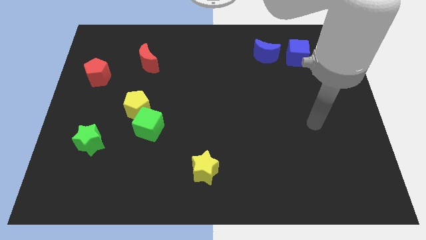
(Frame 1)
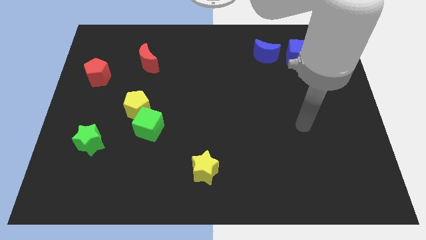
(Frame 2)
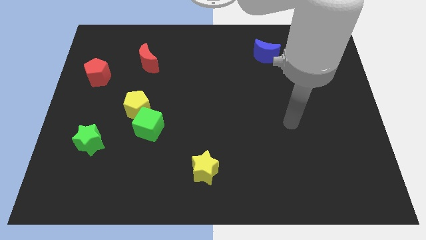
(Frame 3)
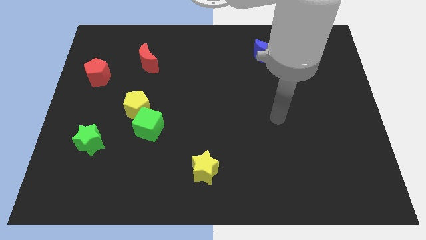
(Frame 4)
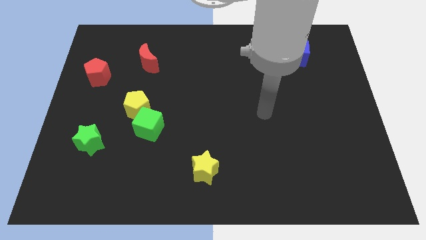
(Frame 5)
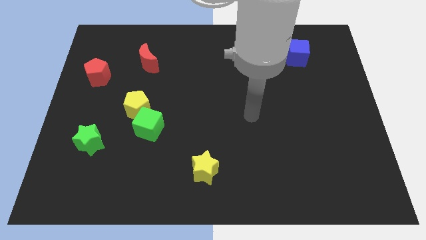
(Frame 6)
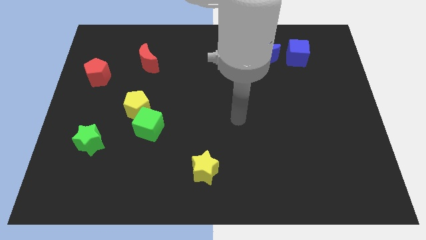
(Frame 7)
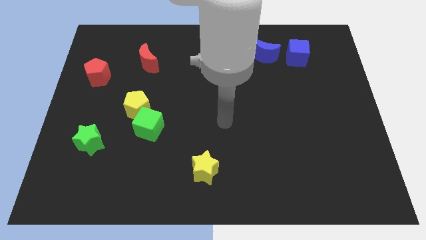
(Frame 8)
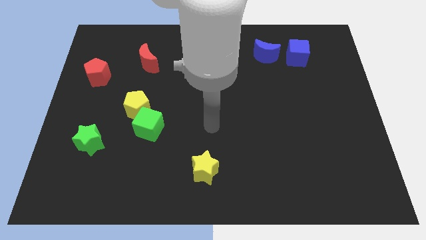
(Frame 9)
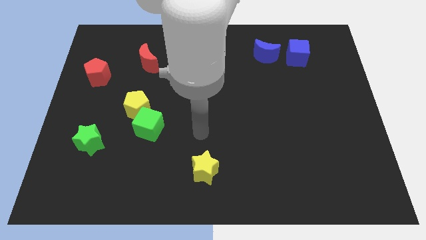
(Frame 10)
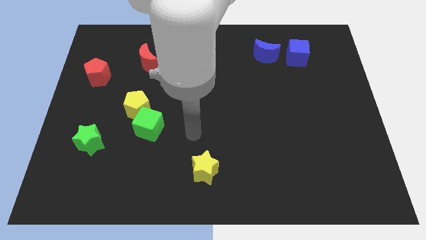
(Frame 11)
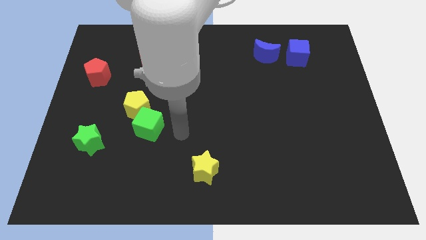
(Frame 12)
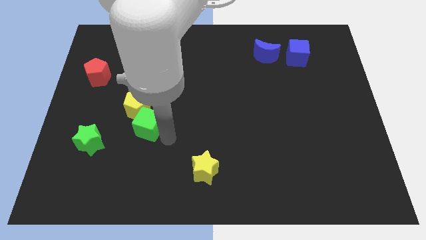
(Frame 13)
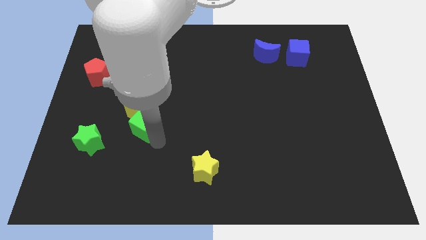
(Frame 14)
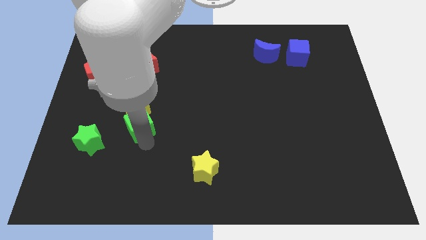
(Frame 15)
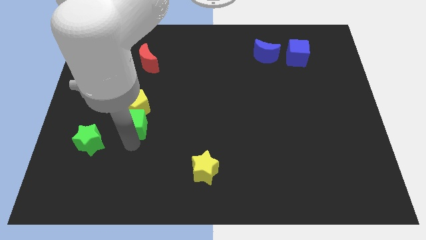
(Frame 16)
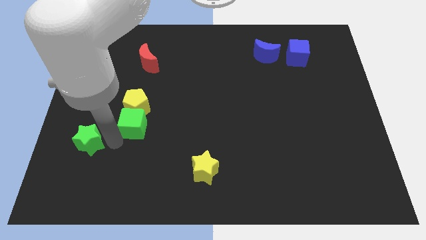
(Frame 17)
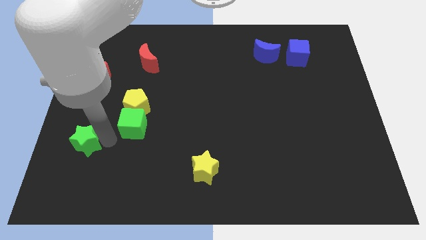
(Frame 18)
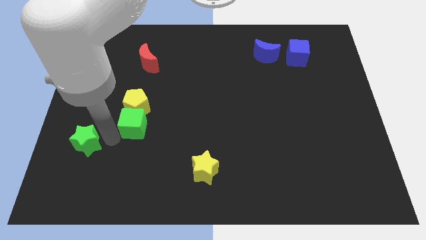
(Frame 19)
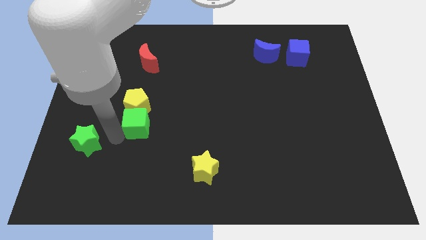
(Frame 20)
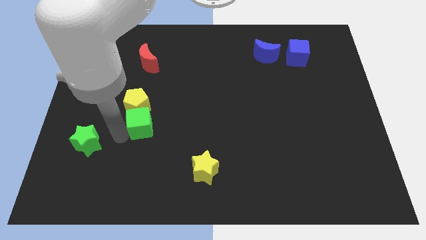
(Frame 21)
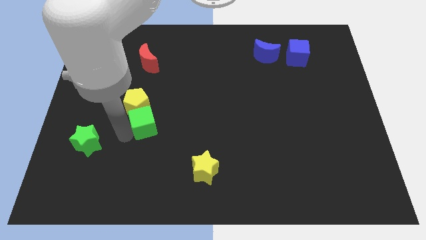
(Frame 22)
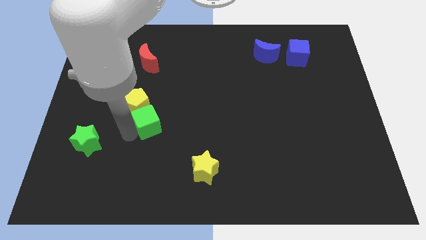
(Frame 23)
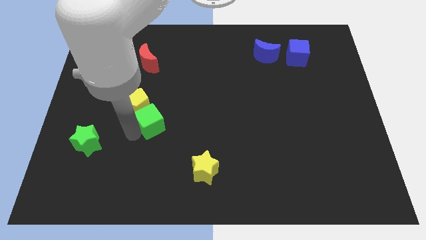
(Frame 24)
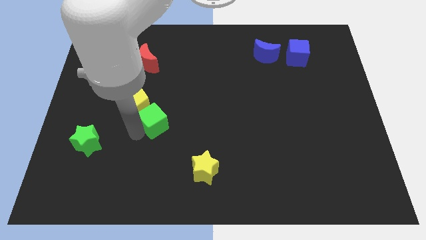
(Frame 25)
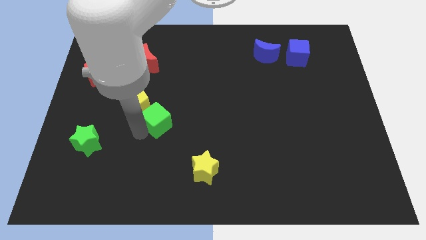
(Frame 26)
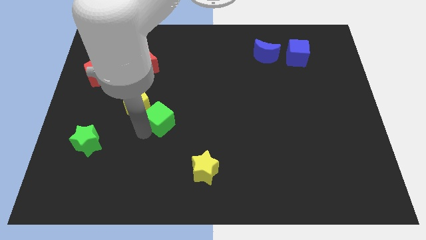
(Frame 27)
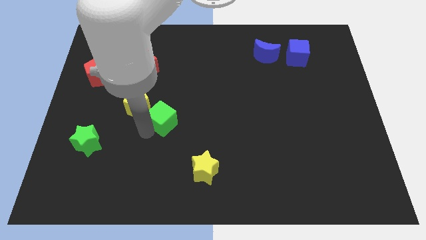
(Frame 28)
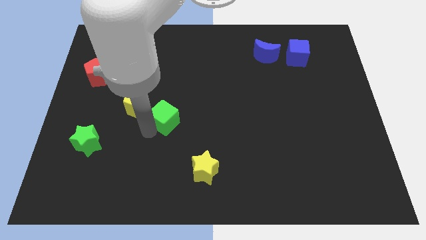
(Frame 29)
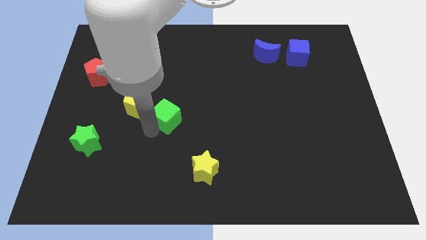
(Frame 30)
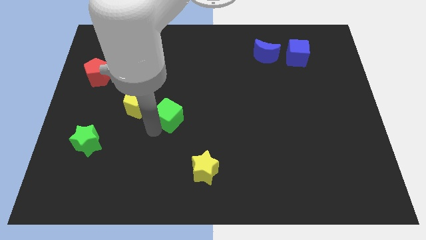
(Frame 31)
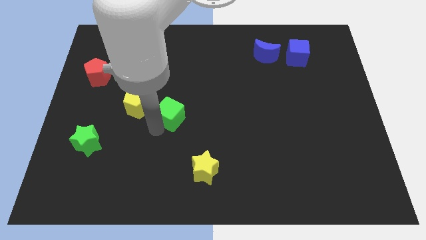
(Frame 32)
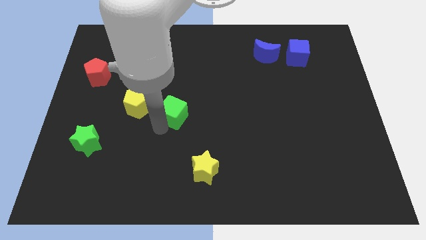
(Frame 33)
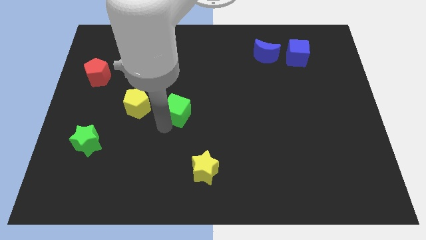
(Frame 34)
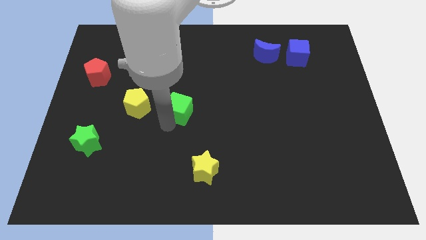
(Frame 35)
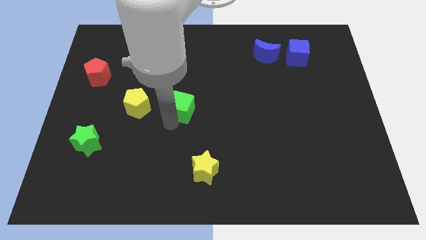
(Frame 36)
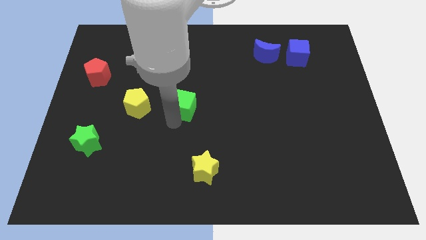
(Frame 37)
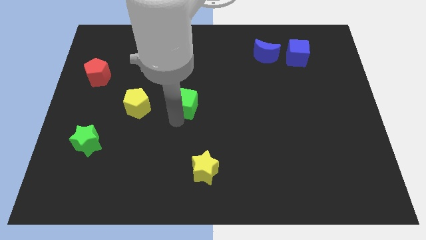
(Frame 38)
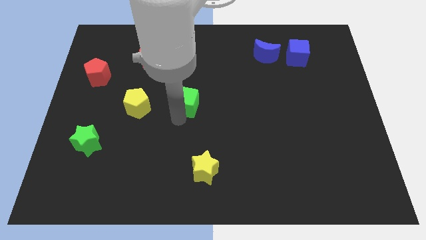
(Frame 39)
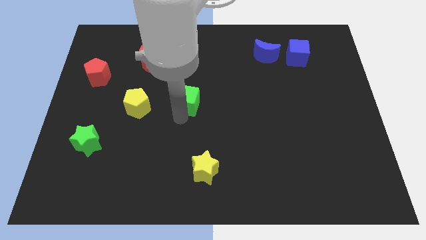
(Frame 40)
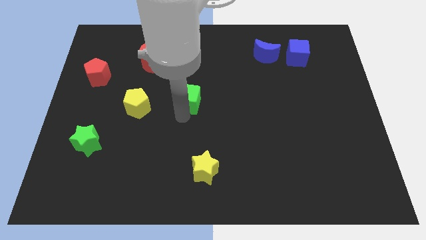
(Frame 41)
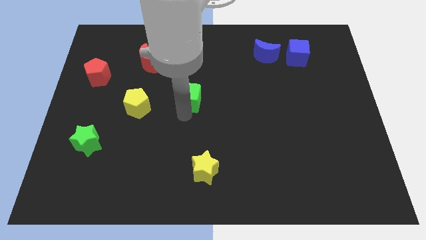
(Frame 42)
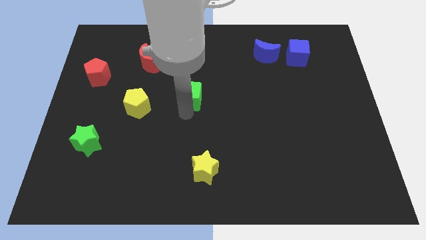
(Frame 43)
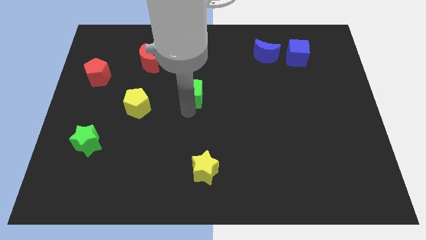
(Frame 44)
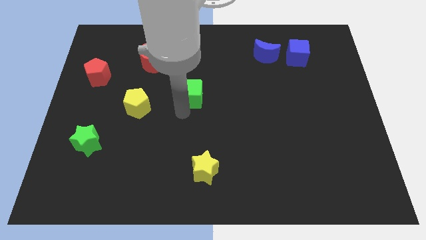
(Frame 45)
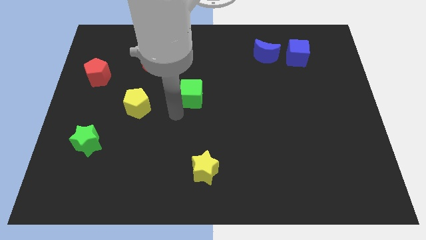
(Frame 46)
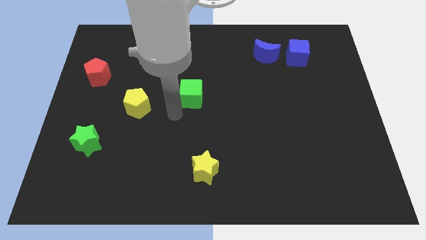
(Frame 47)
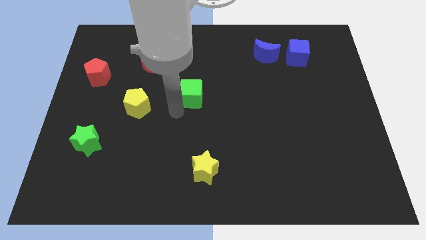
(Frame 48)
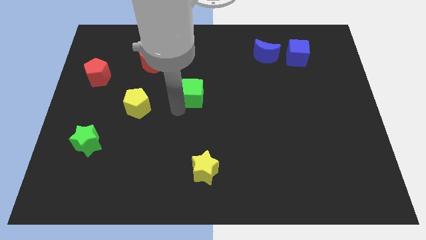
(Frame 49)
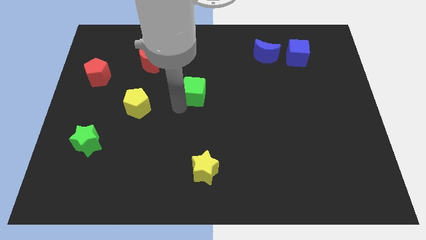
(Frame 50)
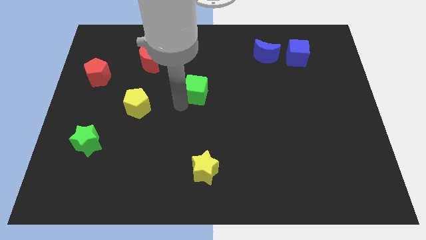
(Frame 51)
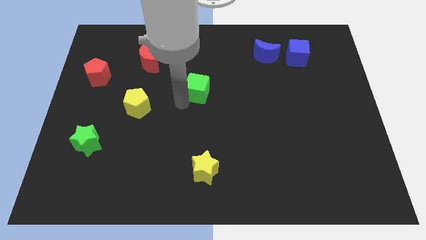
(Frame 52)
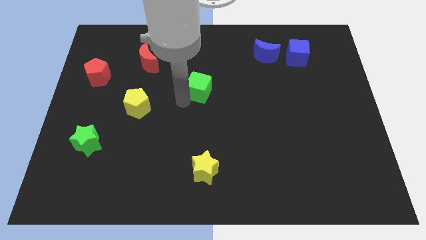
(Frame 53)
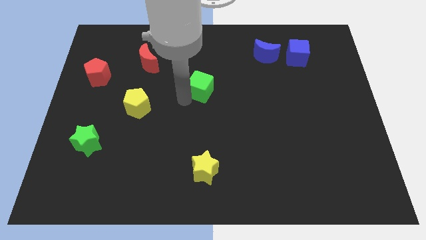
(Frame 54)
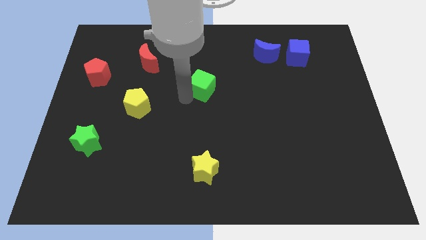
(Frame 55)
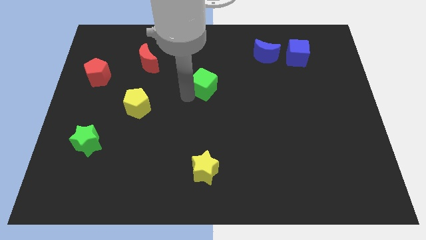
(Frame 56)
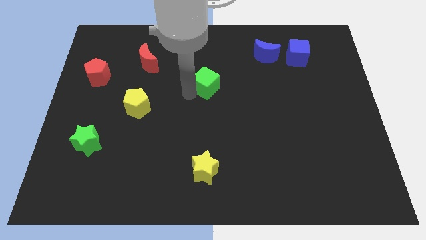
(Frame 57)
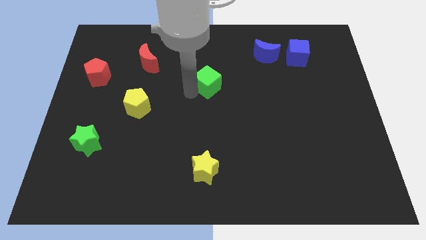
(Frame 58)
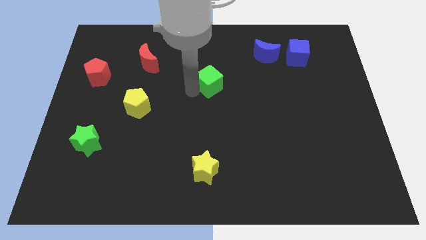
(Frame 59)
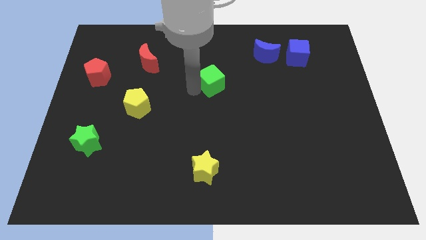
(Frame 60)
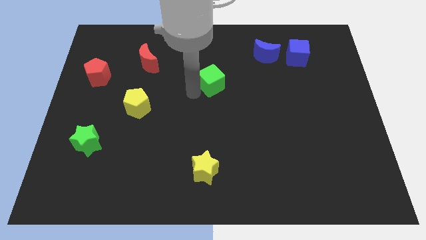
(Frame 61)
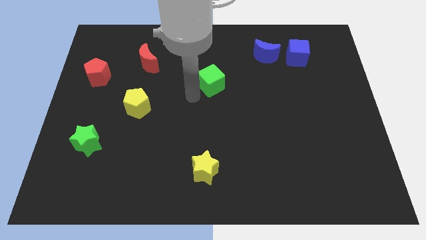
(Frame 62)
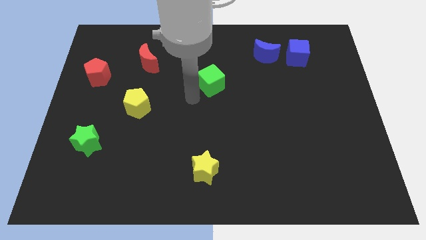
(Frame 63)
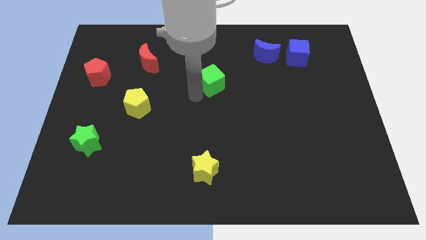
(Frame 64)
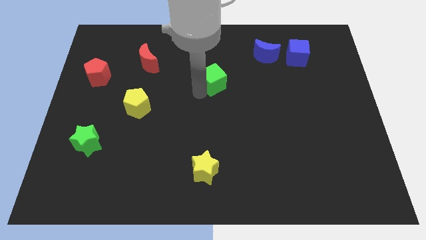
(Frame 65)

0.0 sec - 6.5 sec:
slide the green cube up and then right

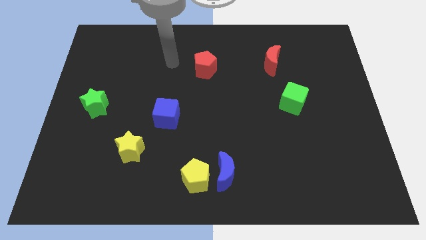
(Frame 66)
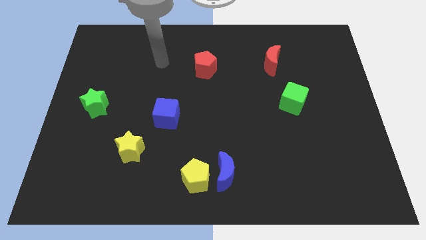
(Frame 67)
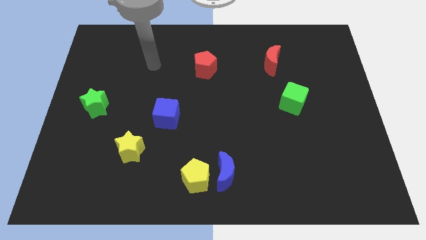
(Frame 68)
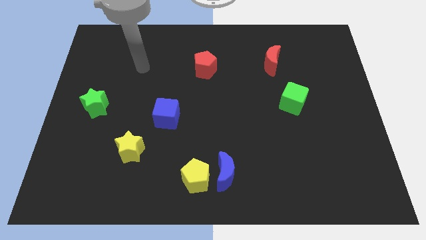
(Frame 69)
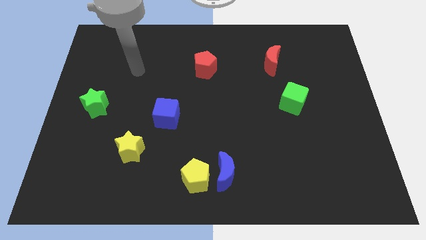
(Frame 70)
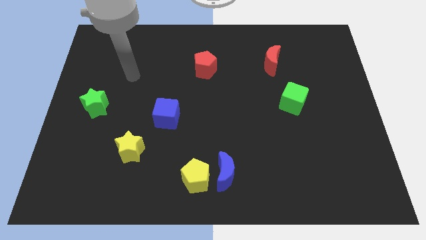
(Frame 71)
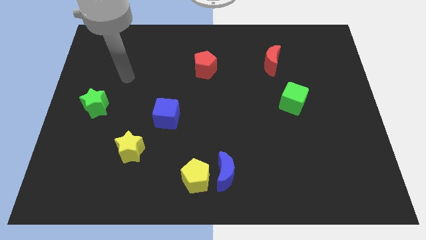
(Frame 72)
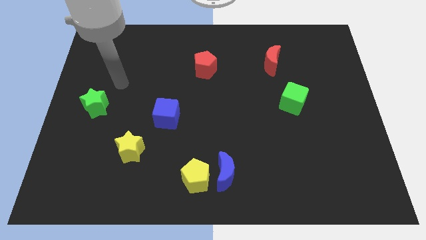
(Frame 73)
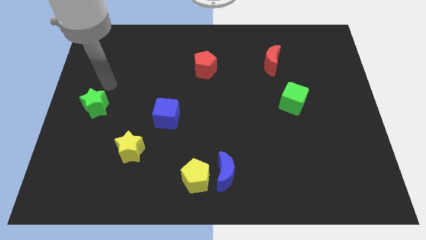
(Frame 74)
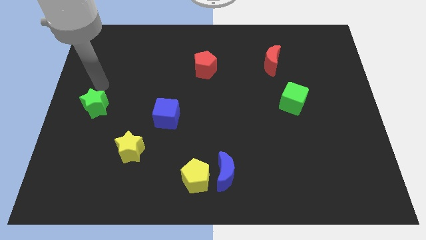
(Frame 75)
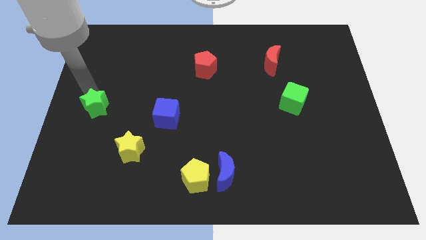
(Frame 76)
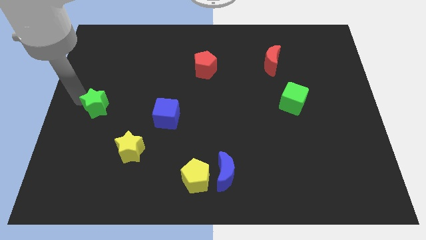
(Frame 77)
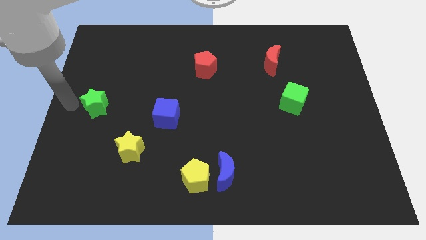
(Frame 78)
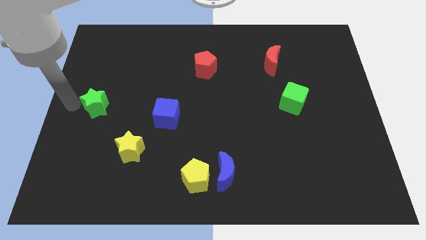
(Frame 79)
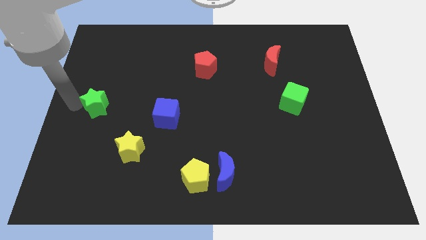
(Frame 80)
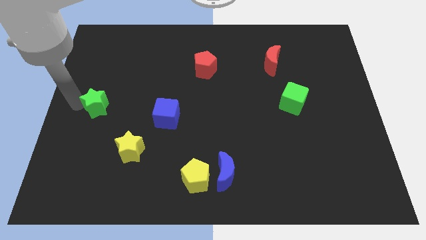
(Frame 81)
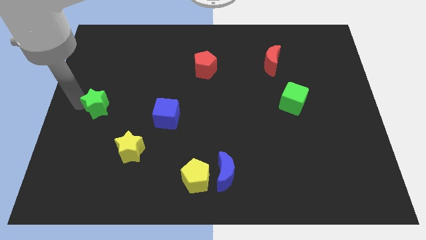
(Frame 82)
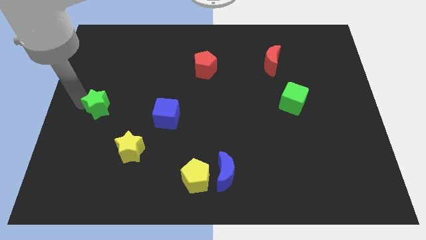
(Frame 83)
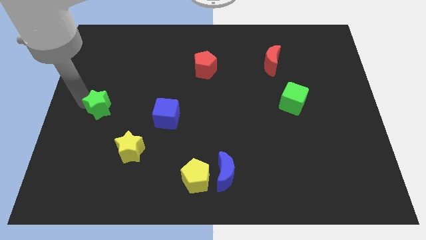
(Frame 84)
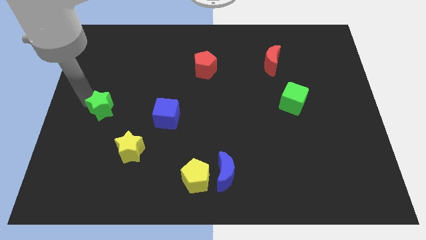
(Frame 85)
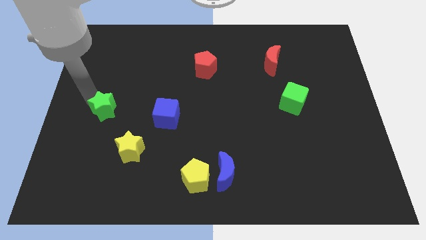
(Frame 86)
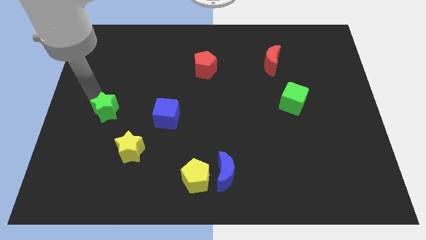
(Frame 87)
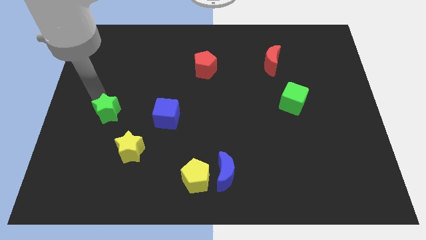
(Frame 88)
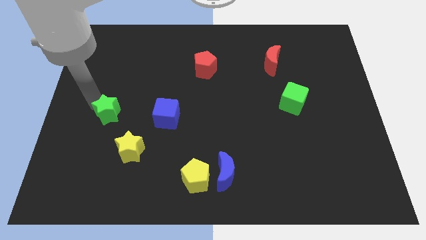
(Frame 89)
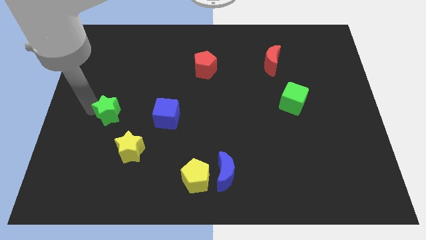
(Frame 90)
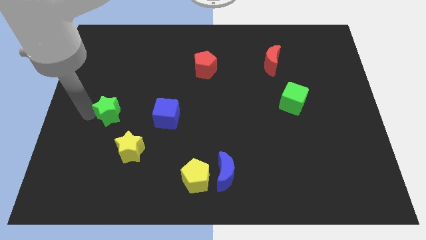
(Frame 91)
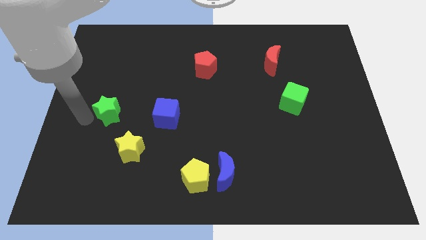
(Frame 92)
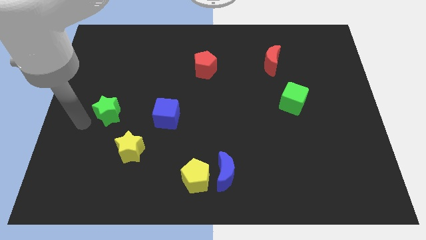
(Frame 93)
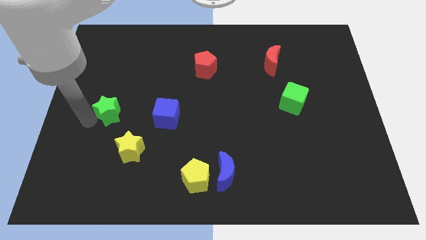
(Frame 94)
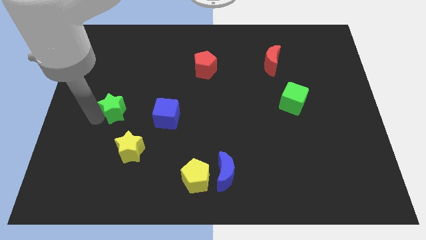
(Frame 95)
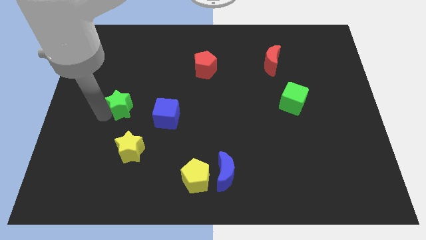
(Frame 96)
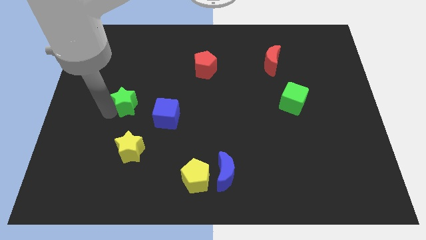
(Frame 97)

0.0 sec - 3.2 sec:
slide the green star right a bit
